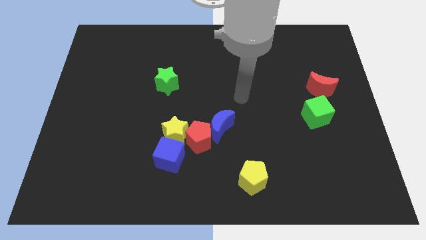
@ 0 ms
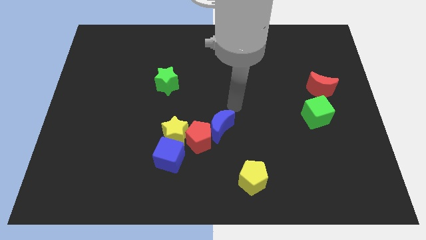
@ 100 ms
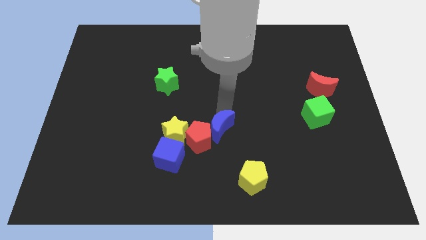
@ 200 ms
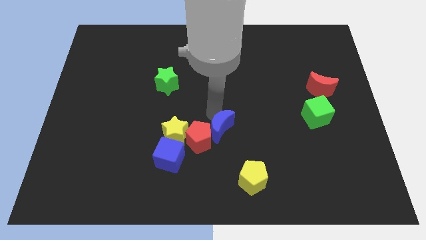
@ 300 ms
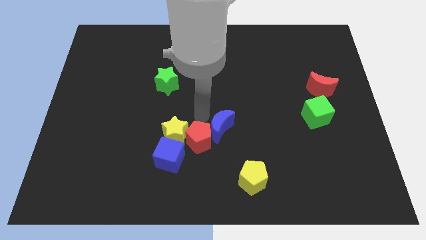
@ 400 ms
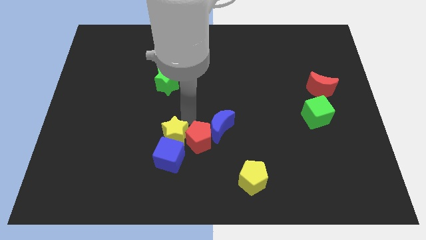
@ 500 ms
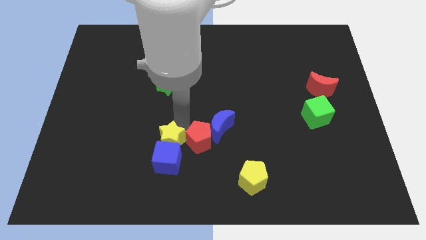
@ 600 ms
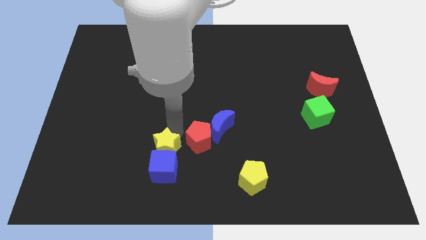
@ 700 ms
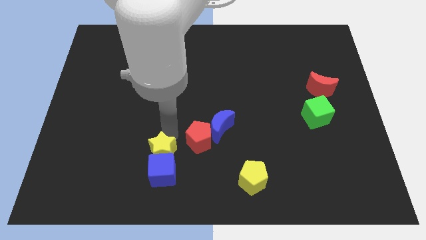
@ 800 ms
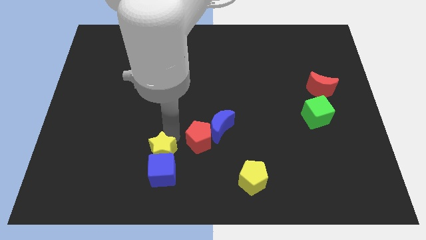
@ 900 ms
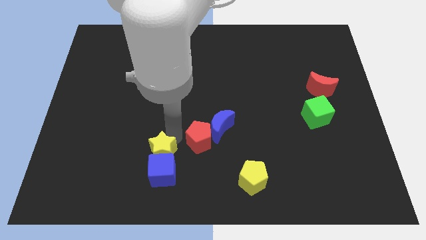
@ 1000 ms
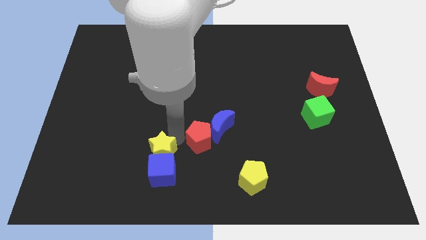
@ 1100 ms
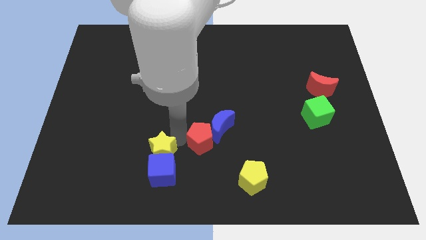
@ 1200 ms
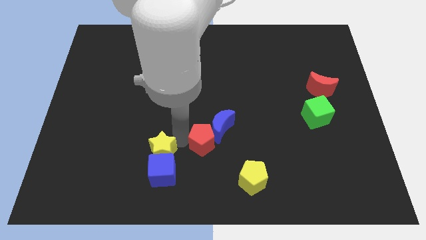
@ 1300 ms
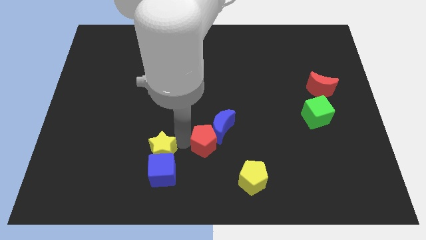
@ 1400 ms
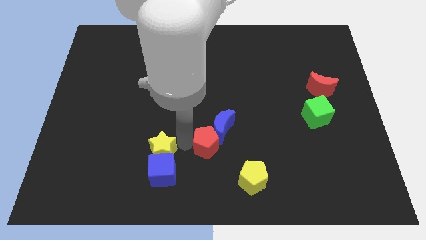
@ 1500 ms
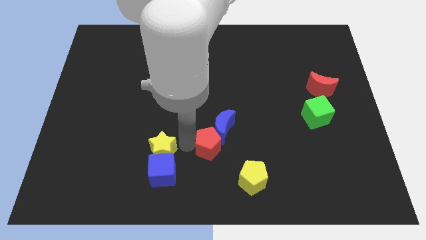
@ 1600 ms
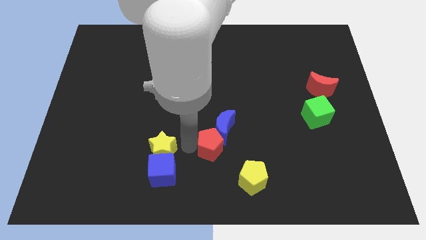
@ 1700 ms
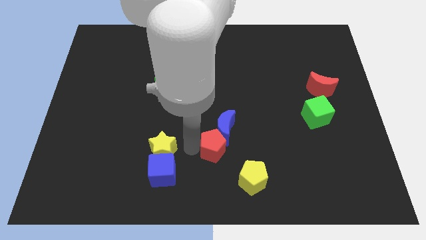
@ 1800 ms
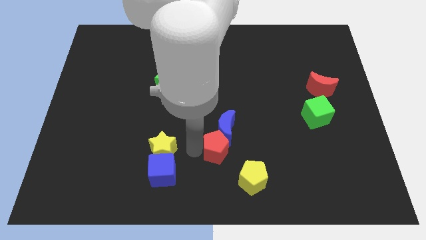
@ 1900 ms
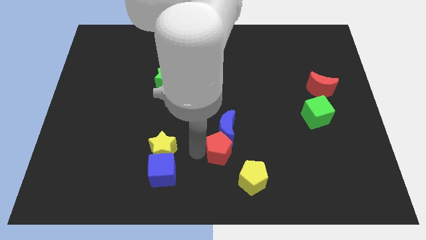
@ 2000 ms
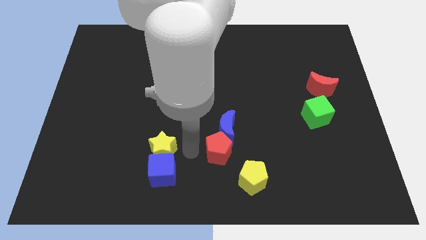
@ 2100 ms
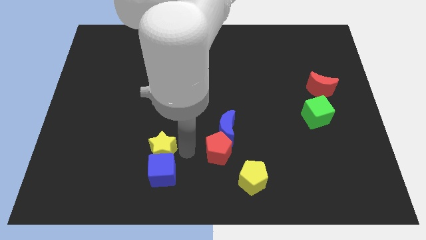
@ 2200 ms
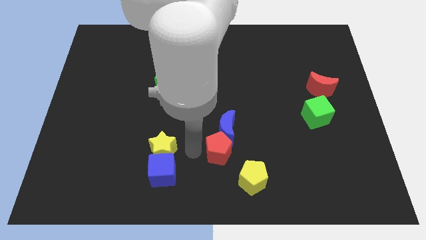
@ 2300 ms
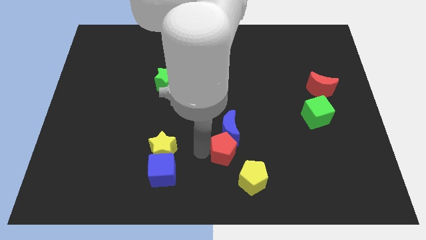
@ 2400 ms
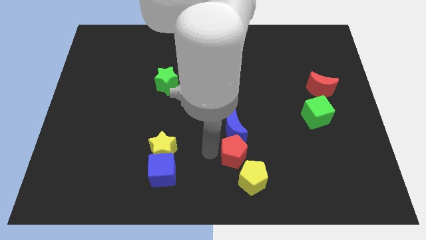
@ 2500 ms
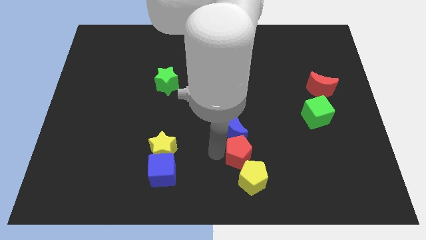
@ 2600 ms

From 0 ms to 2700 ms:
pull the red pentagon apart from the yellow star, blue moon, and blue cube

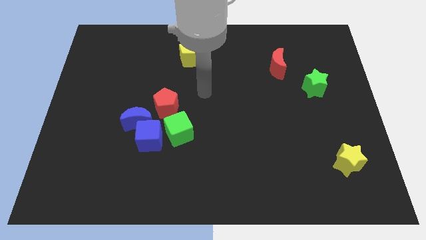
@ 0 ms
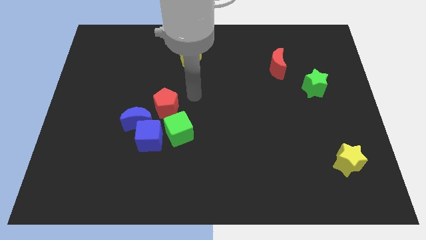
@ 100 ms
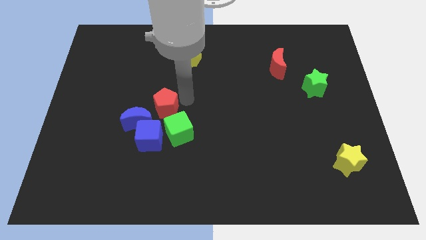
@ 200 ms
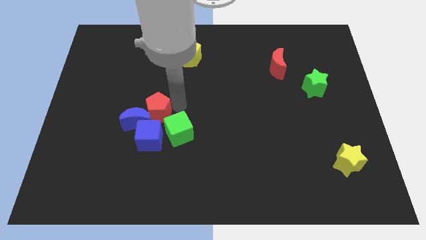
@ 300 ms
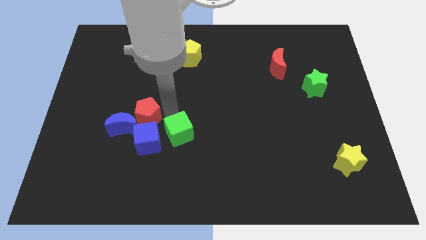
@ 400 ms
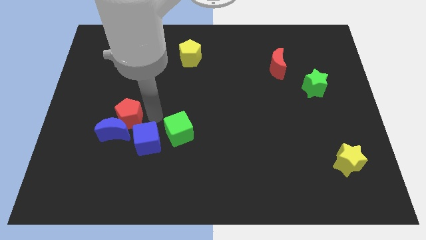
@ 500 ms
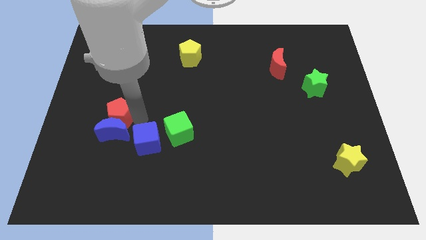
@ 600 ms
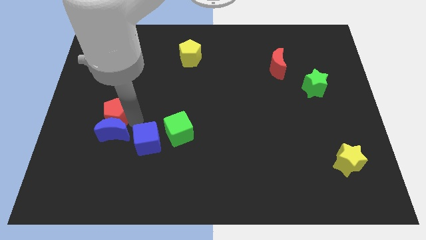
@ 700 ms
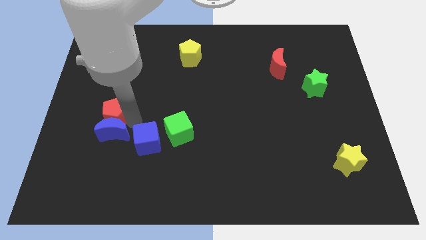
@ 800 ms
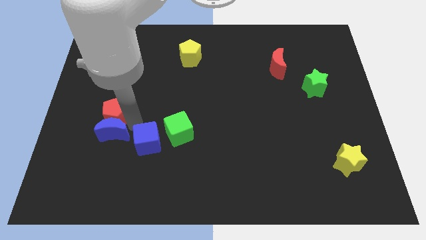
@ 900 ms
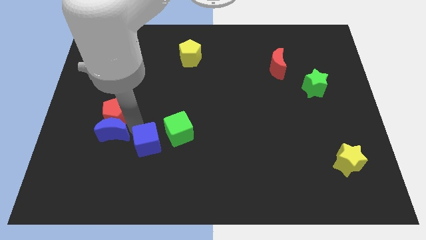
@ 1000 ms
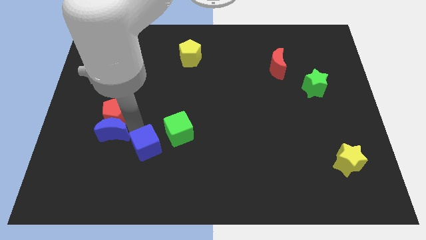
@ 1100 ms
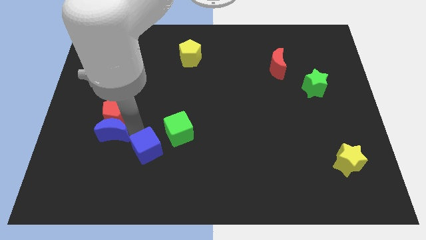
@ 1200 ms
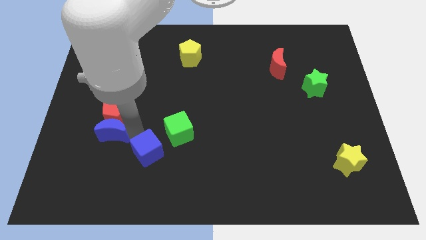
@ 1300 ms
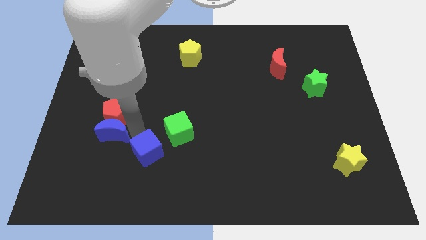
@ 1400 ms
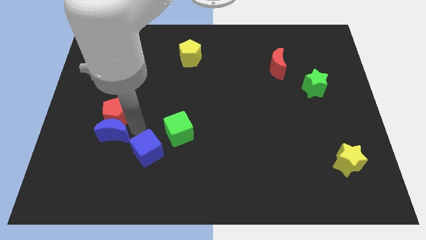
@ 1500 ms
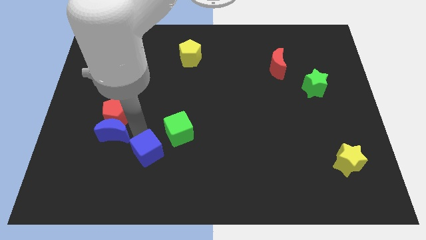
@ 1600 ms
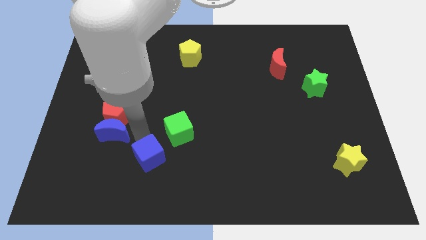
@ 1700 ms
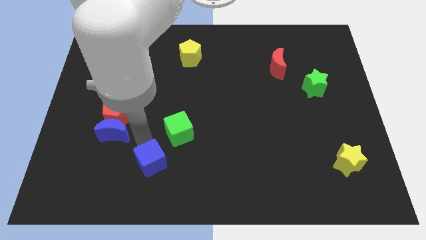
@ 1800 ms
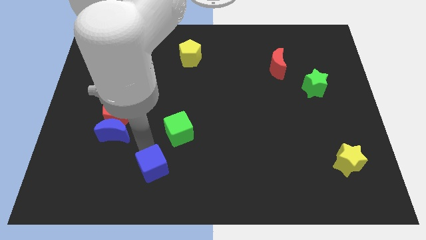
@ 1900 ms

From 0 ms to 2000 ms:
pull the blue cube apart from the blue moon, green cube, and red pentagon

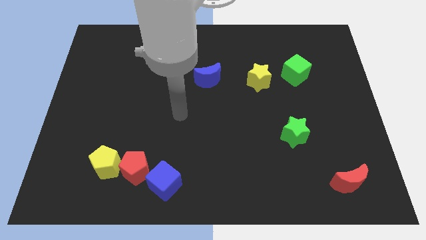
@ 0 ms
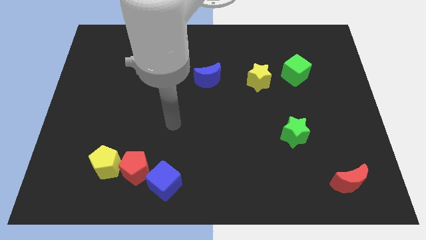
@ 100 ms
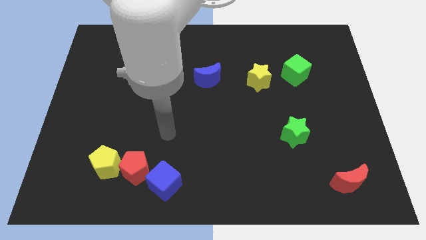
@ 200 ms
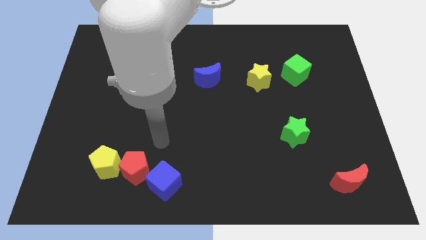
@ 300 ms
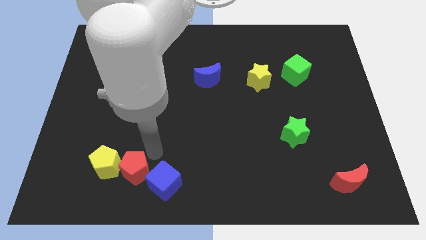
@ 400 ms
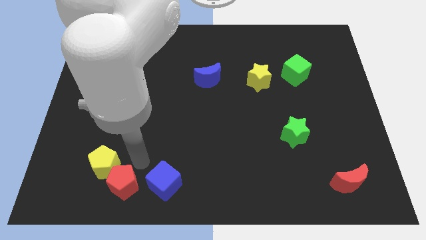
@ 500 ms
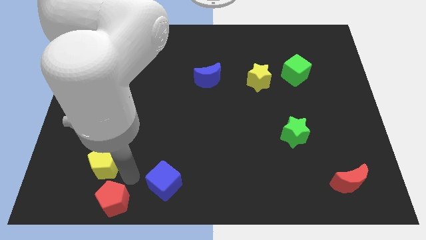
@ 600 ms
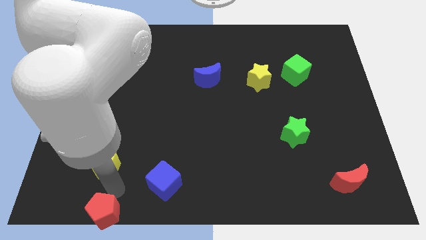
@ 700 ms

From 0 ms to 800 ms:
pull the yellow pentagon apart from the red pentagon

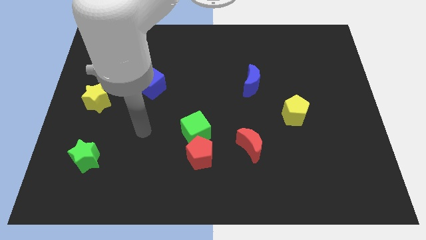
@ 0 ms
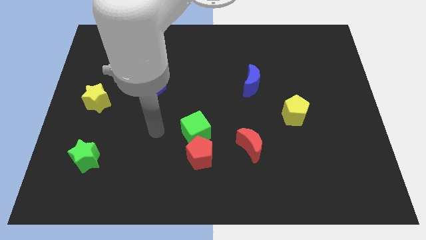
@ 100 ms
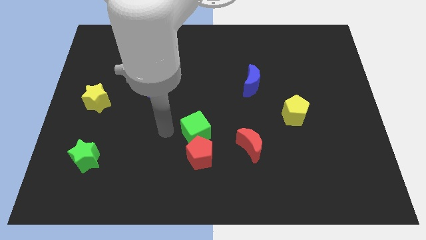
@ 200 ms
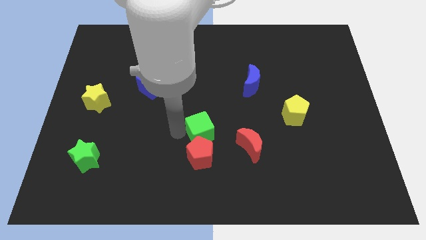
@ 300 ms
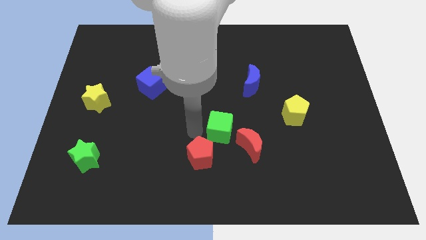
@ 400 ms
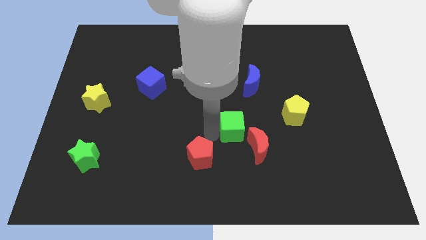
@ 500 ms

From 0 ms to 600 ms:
pull the red pentagon apart from the green cube

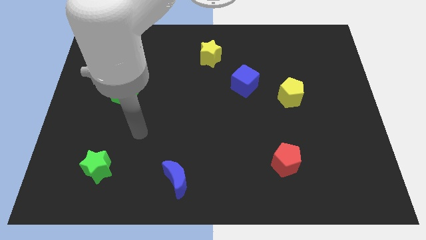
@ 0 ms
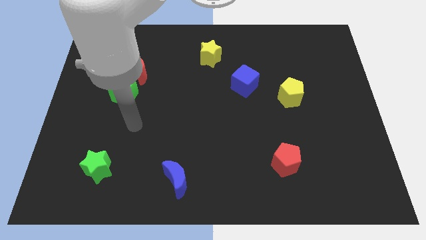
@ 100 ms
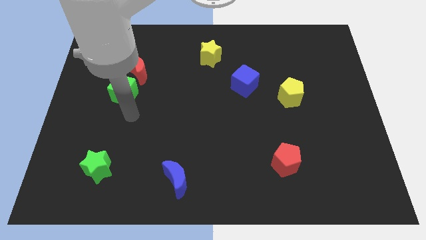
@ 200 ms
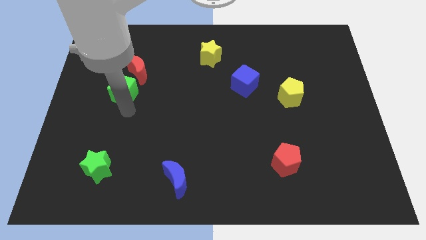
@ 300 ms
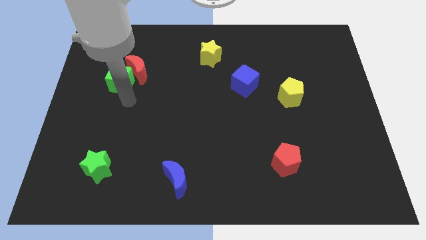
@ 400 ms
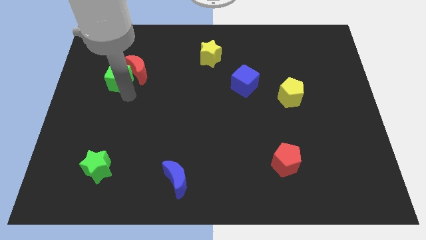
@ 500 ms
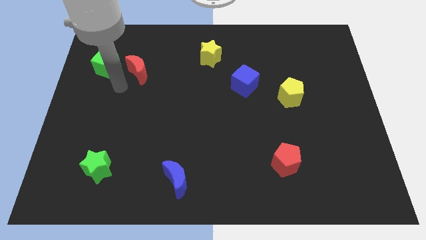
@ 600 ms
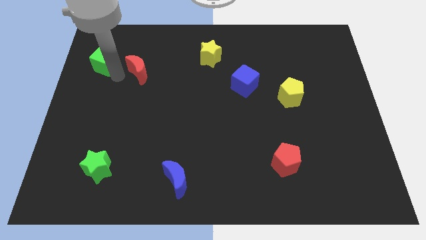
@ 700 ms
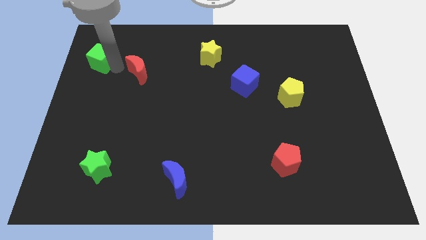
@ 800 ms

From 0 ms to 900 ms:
pull the red moon apart from the green cube

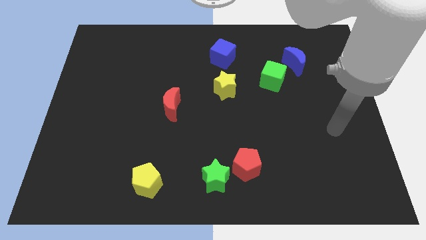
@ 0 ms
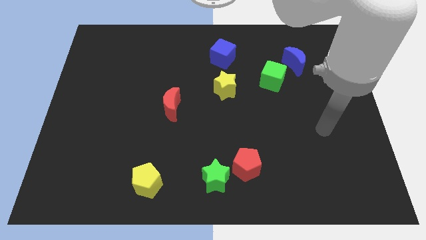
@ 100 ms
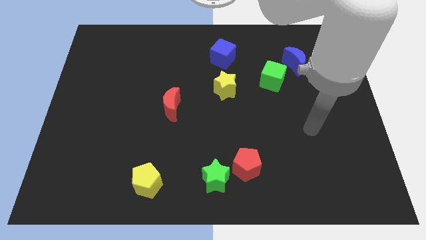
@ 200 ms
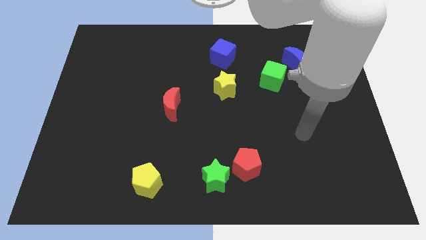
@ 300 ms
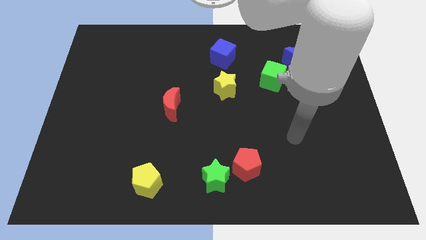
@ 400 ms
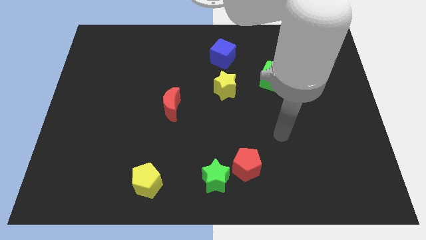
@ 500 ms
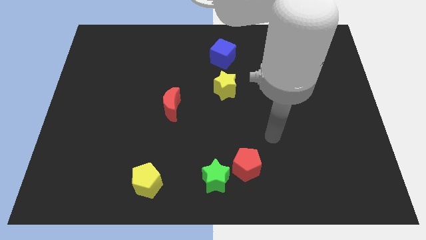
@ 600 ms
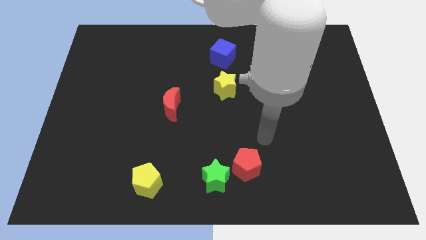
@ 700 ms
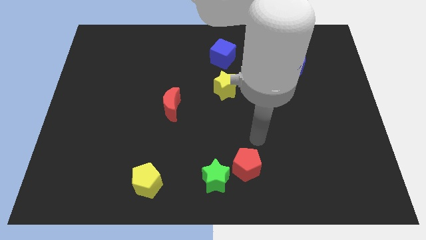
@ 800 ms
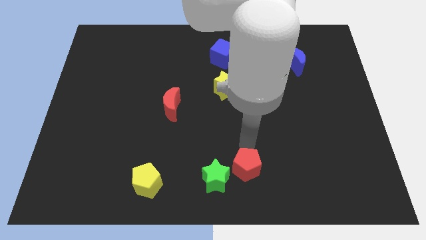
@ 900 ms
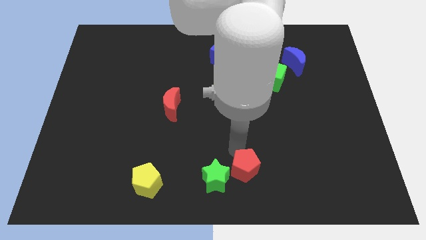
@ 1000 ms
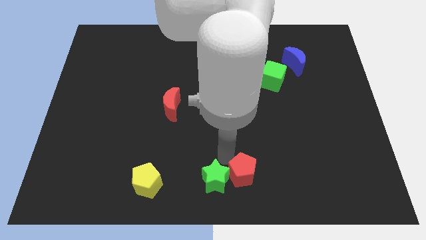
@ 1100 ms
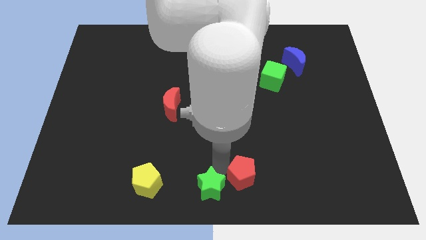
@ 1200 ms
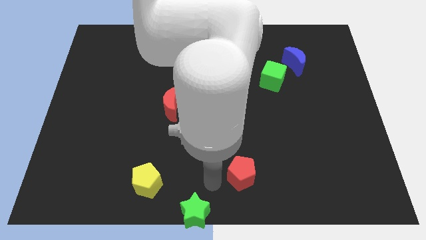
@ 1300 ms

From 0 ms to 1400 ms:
separate the red pentagon from the green star

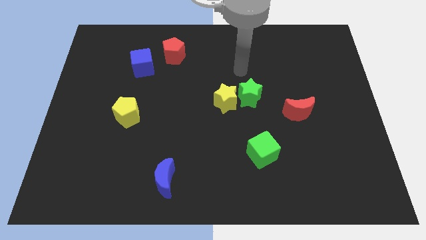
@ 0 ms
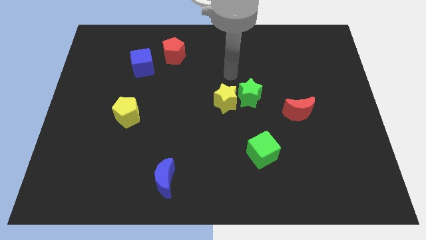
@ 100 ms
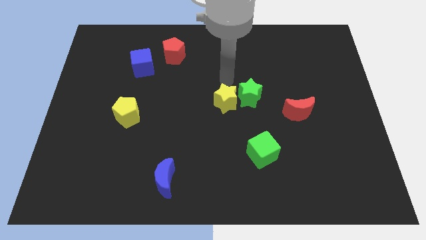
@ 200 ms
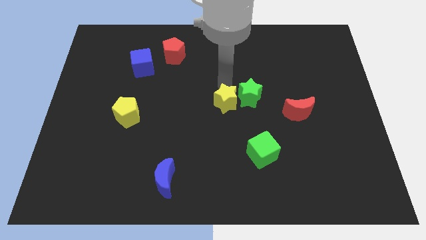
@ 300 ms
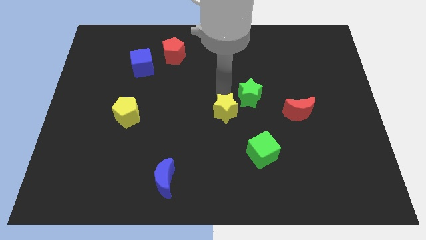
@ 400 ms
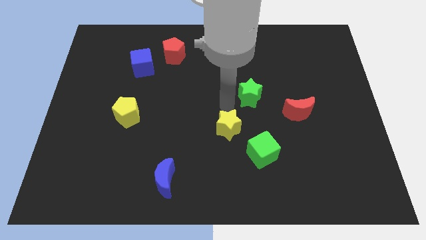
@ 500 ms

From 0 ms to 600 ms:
pull the green star apart from the yellow star

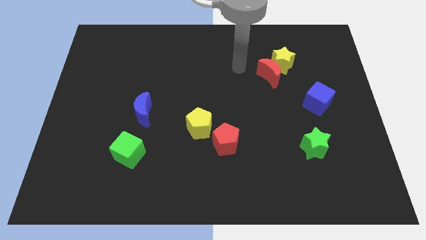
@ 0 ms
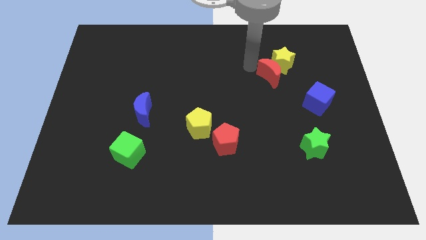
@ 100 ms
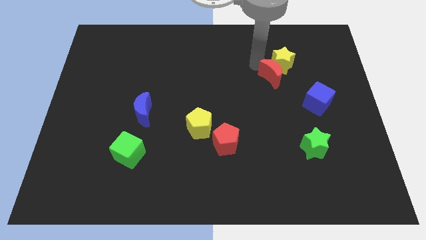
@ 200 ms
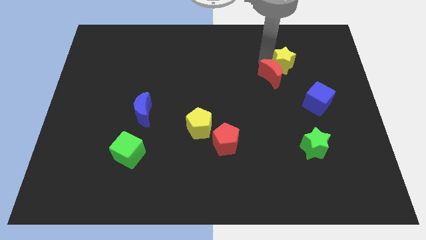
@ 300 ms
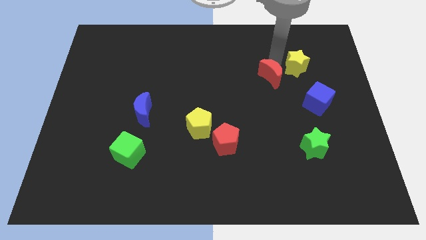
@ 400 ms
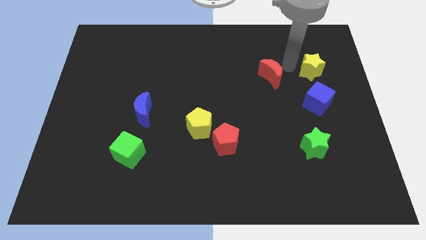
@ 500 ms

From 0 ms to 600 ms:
move the red moon away from the yellow star
